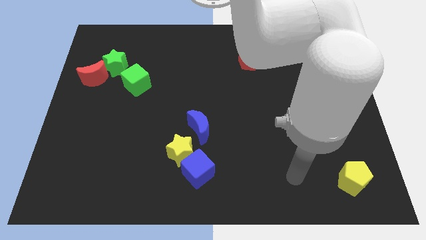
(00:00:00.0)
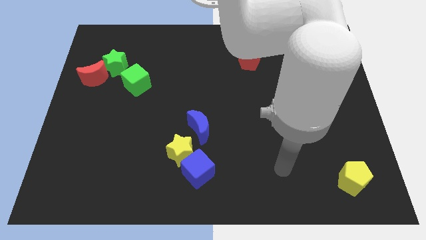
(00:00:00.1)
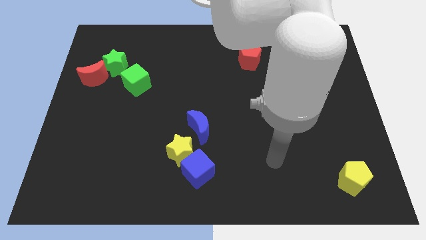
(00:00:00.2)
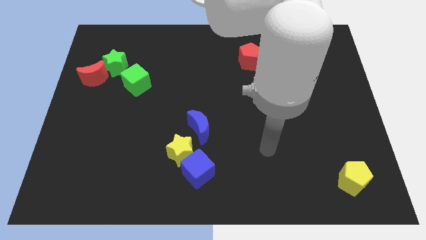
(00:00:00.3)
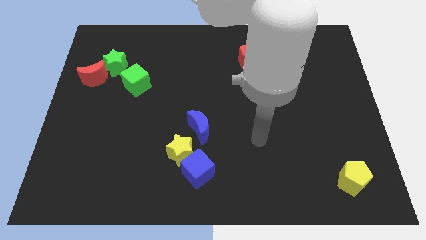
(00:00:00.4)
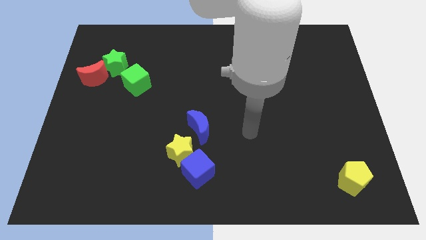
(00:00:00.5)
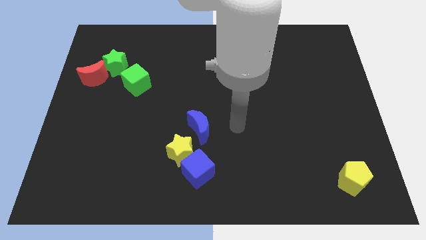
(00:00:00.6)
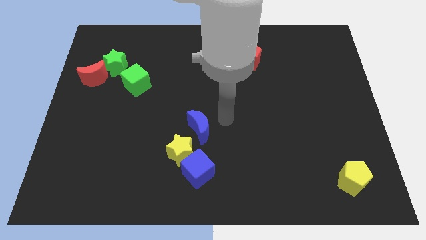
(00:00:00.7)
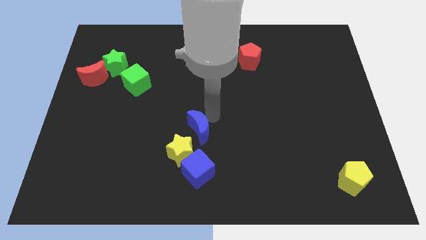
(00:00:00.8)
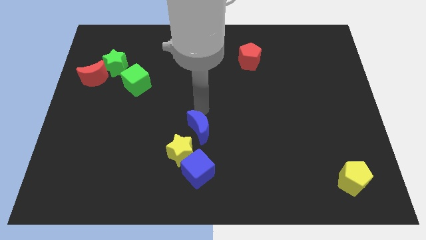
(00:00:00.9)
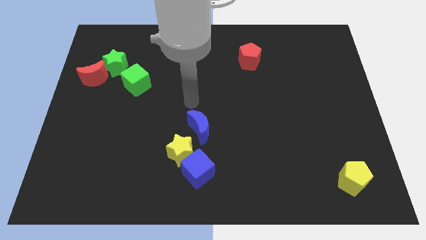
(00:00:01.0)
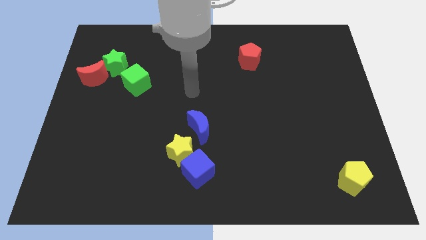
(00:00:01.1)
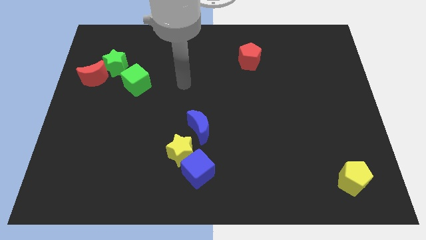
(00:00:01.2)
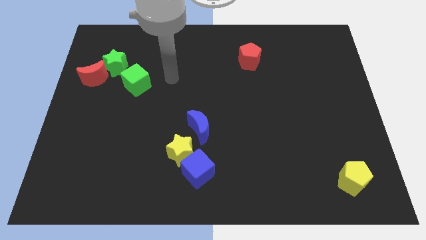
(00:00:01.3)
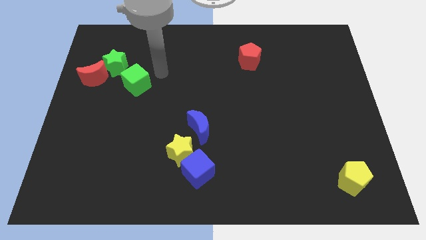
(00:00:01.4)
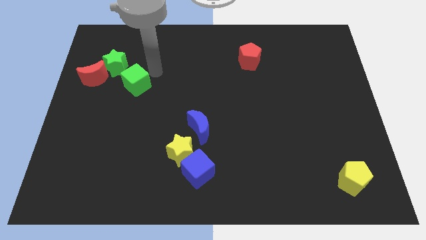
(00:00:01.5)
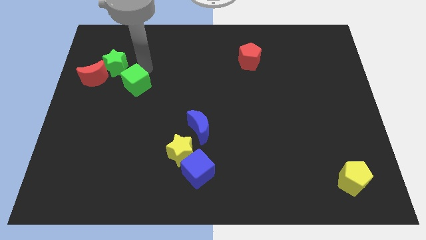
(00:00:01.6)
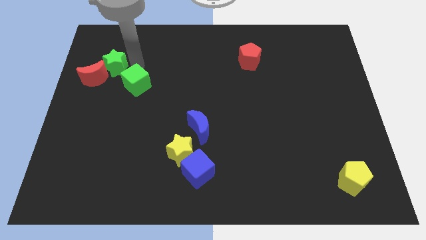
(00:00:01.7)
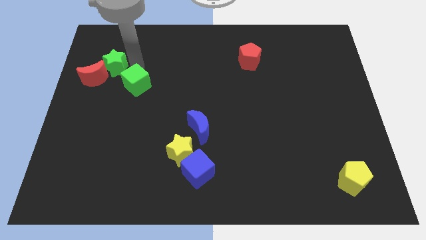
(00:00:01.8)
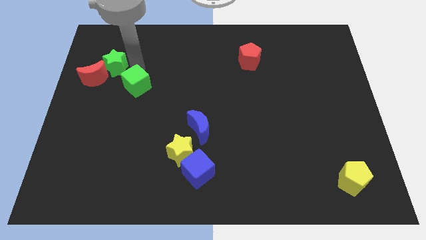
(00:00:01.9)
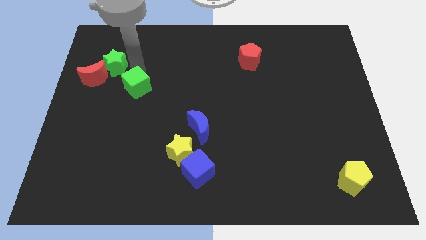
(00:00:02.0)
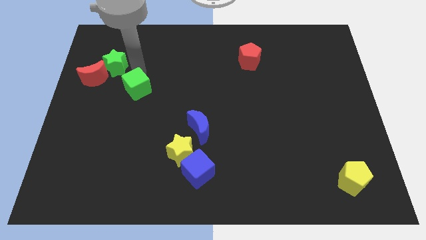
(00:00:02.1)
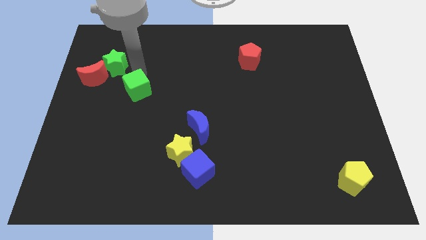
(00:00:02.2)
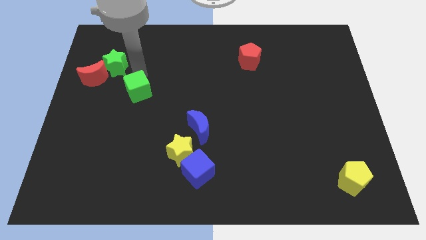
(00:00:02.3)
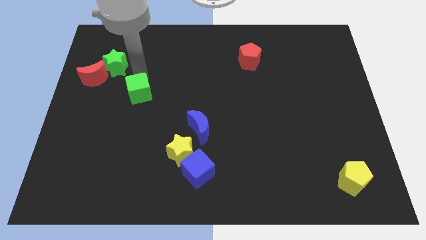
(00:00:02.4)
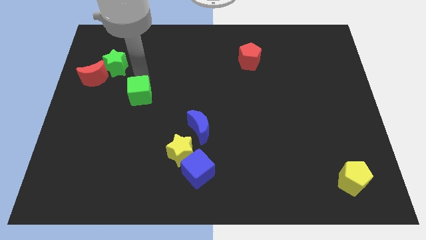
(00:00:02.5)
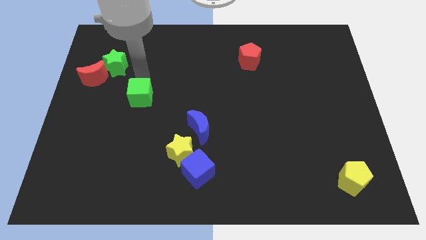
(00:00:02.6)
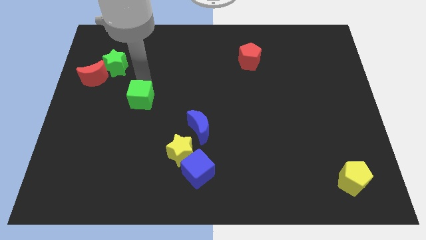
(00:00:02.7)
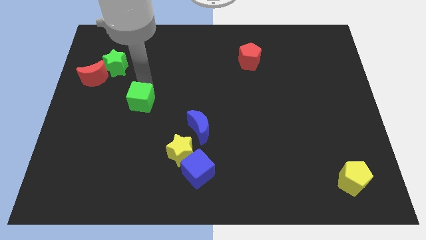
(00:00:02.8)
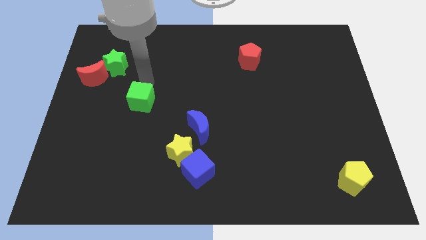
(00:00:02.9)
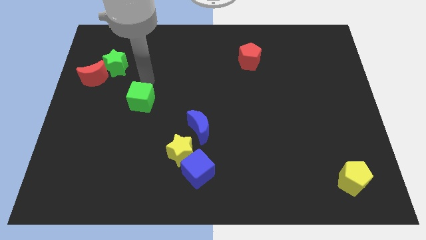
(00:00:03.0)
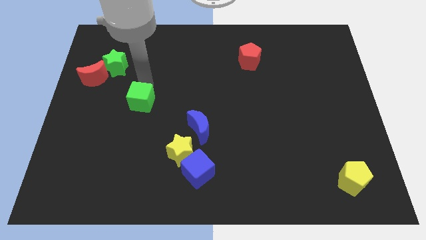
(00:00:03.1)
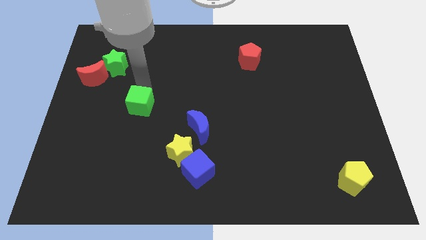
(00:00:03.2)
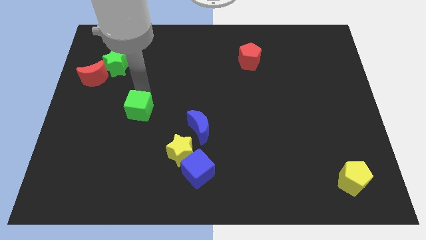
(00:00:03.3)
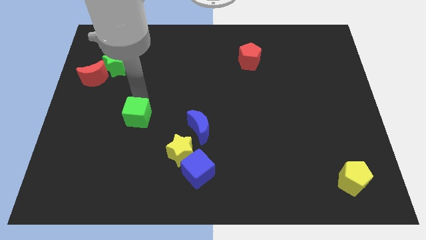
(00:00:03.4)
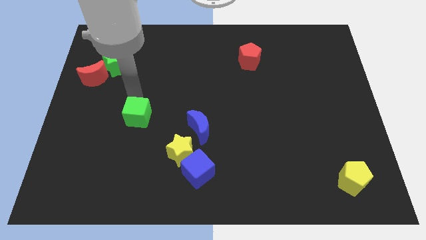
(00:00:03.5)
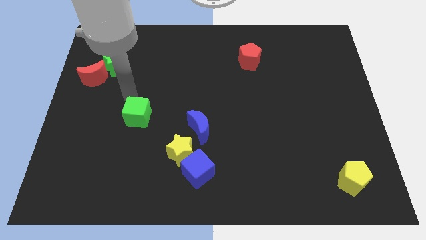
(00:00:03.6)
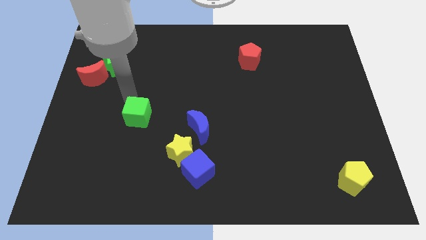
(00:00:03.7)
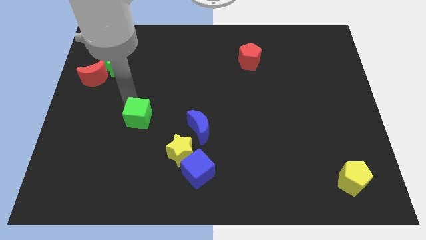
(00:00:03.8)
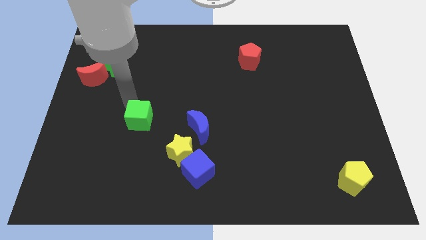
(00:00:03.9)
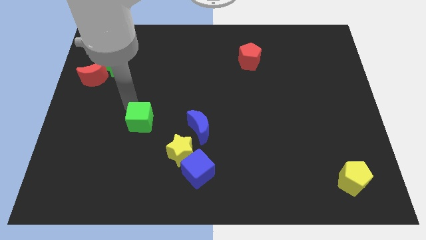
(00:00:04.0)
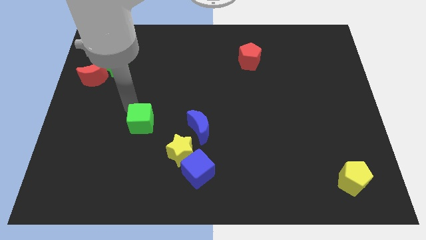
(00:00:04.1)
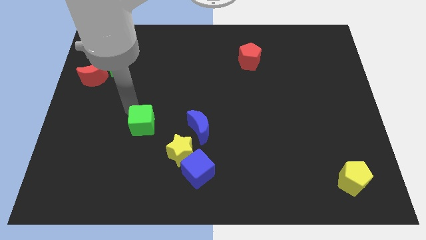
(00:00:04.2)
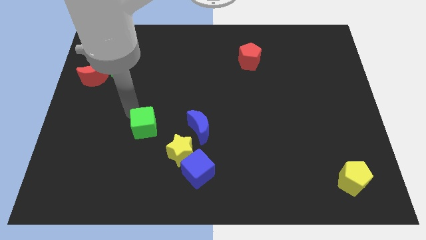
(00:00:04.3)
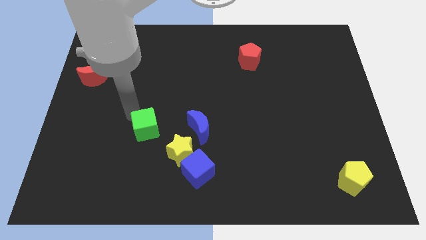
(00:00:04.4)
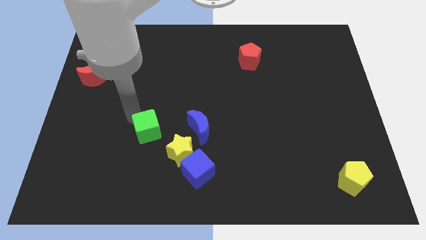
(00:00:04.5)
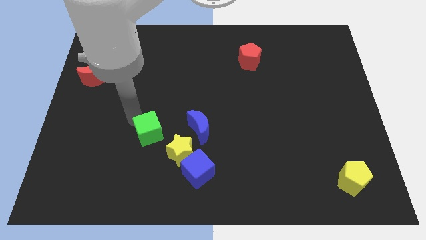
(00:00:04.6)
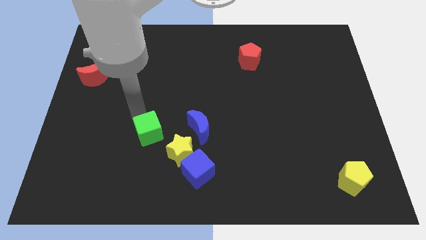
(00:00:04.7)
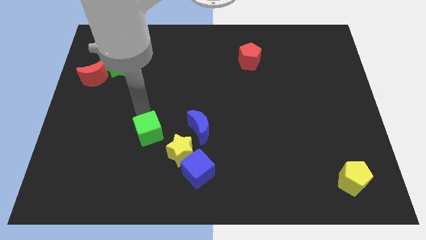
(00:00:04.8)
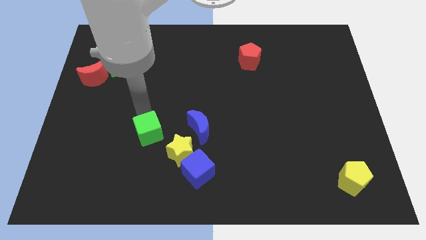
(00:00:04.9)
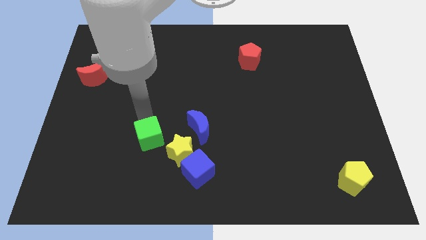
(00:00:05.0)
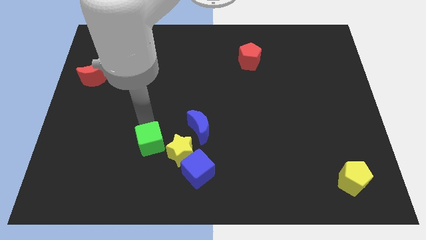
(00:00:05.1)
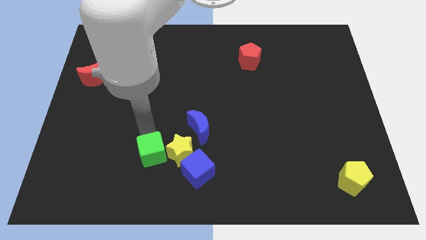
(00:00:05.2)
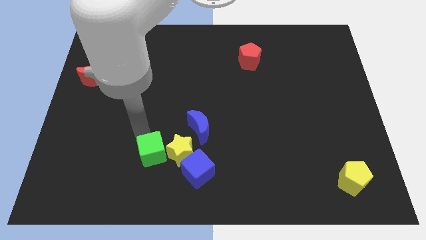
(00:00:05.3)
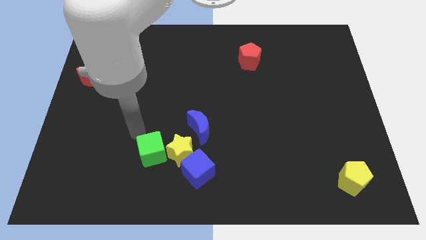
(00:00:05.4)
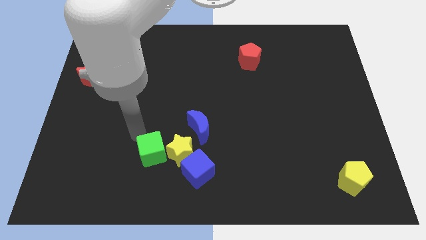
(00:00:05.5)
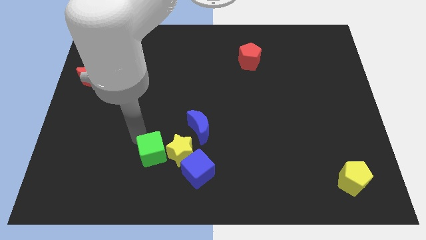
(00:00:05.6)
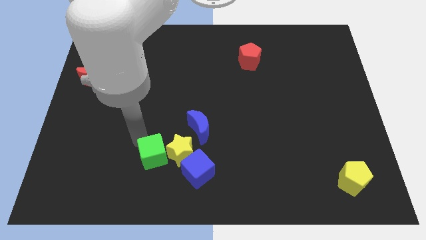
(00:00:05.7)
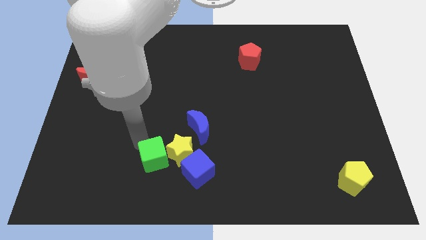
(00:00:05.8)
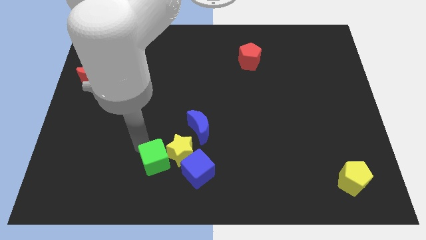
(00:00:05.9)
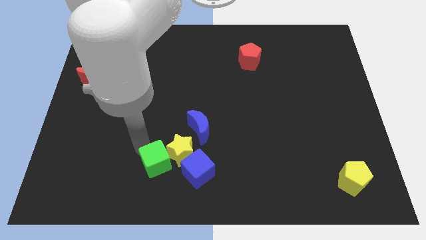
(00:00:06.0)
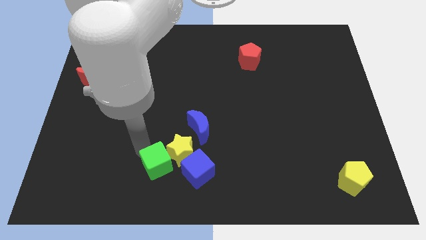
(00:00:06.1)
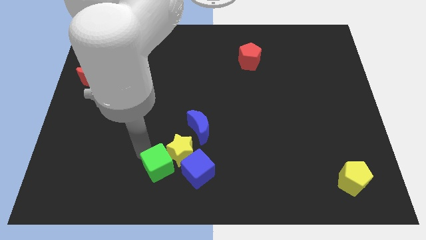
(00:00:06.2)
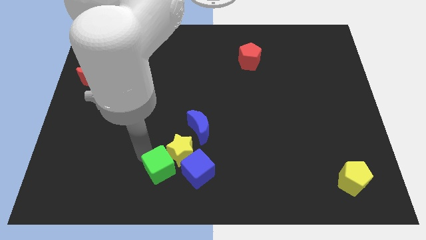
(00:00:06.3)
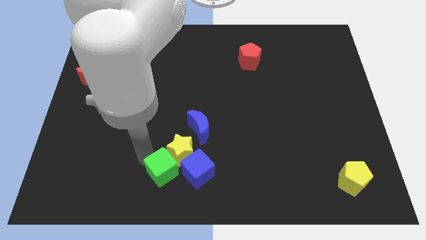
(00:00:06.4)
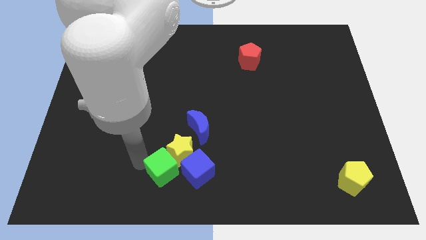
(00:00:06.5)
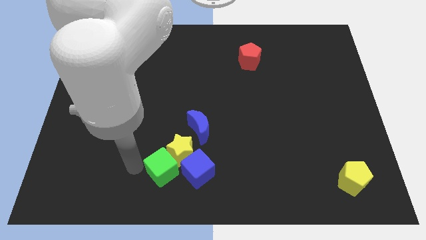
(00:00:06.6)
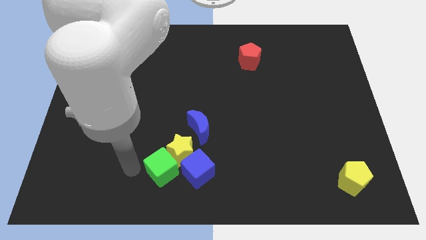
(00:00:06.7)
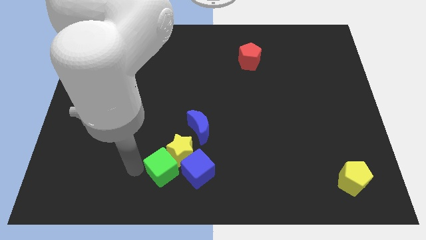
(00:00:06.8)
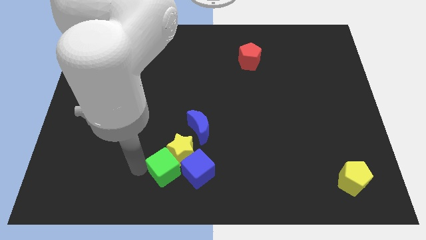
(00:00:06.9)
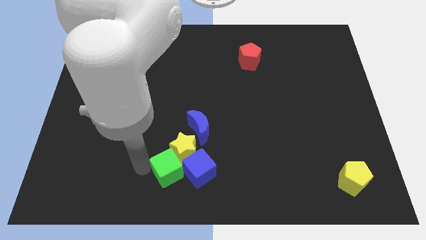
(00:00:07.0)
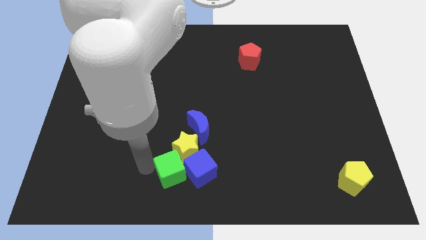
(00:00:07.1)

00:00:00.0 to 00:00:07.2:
put the green cube next to the blue cube
